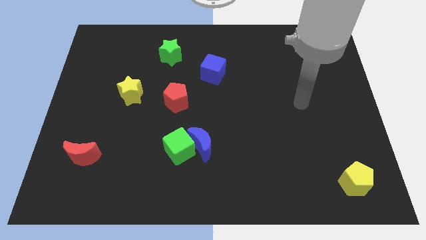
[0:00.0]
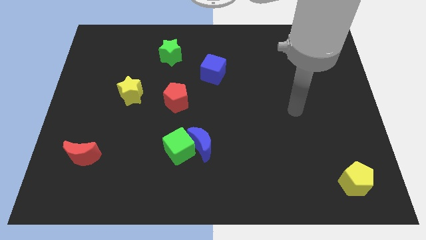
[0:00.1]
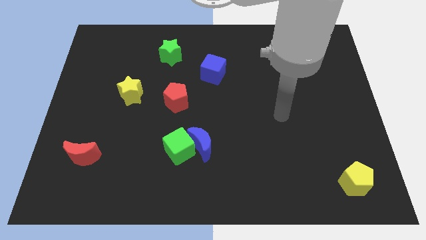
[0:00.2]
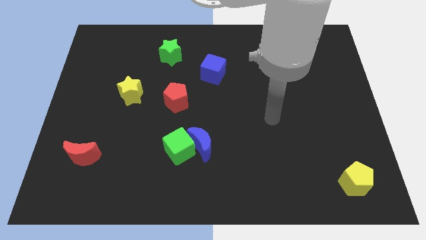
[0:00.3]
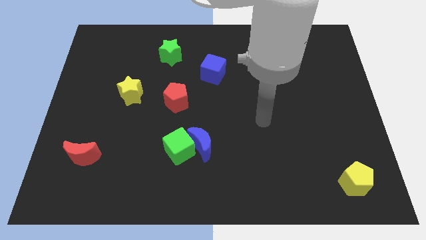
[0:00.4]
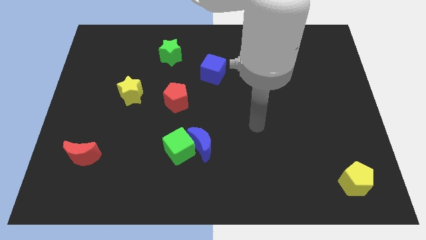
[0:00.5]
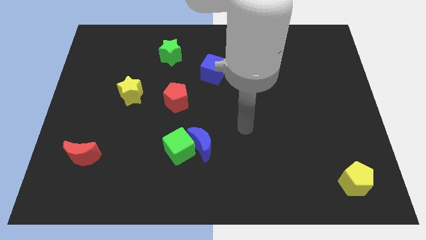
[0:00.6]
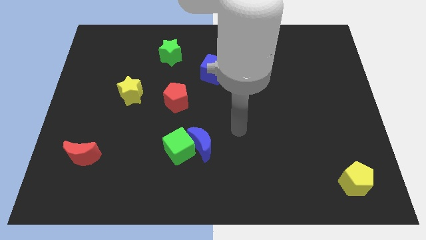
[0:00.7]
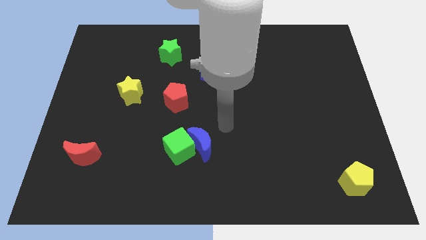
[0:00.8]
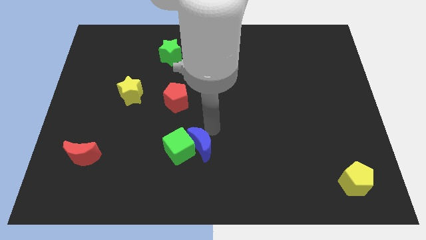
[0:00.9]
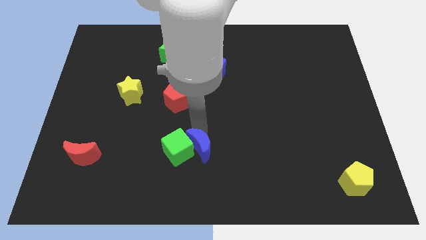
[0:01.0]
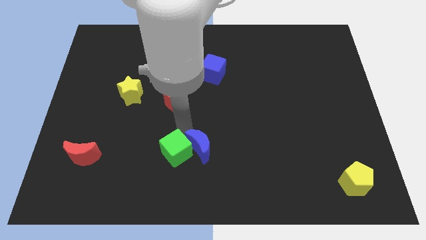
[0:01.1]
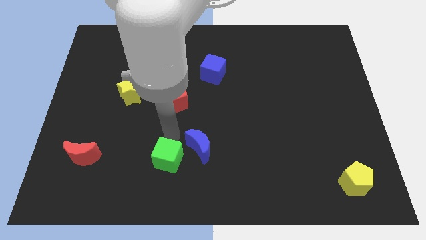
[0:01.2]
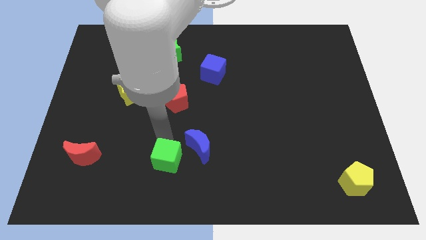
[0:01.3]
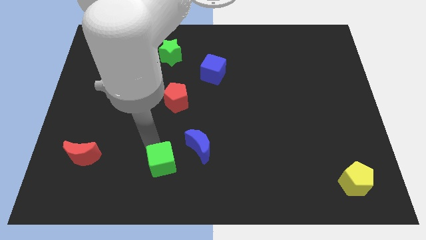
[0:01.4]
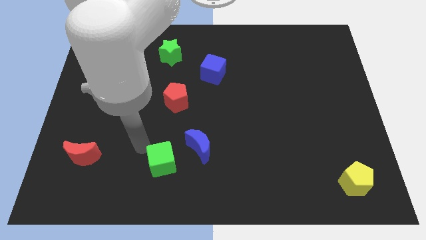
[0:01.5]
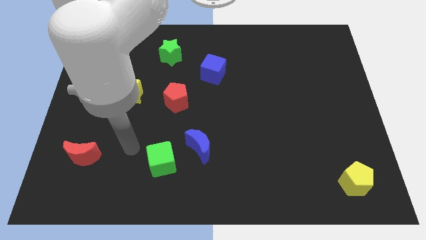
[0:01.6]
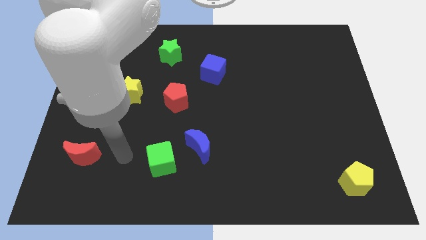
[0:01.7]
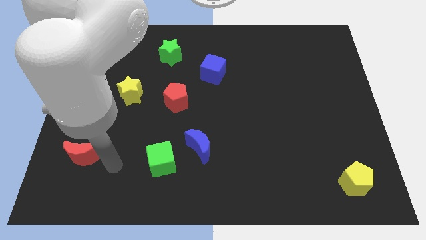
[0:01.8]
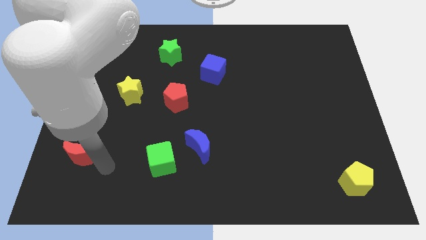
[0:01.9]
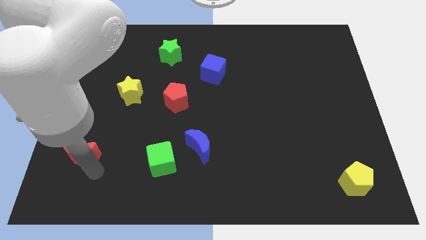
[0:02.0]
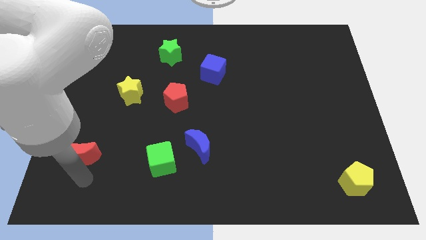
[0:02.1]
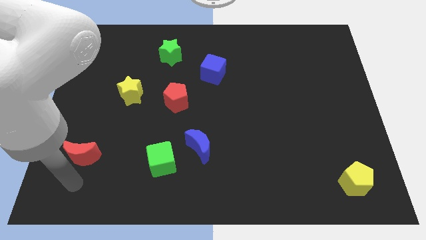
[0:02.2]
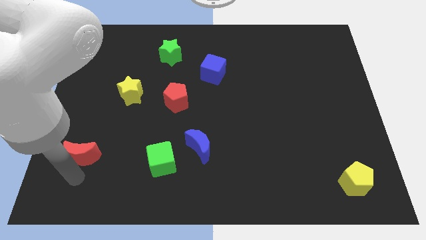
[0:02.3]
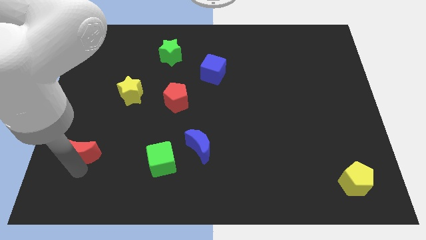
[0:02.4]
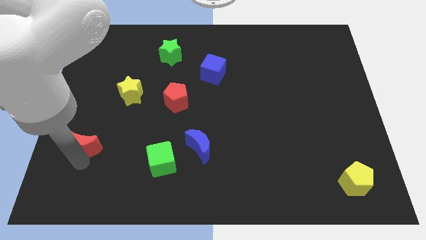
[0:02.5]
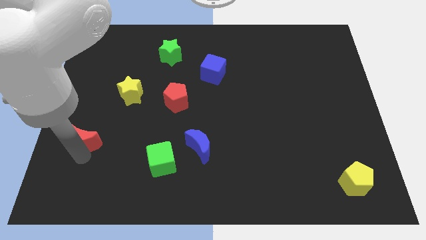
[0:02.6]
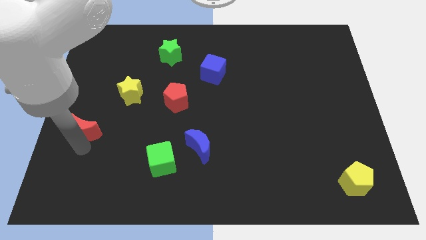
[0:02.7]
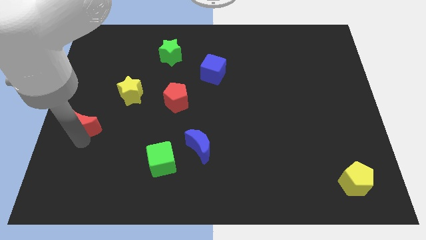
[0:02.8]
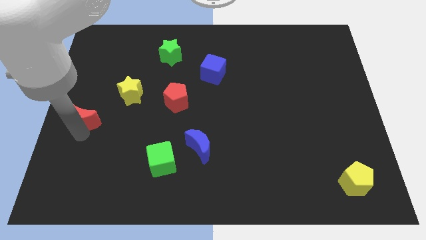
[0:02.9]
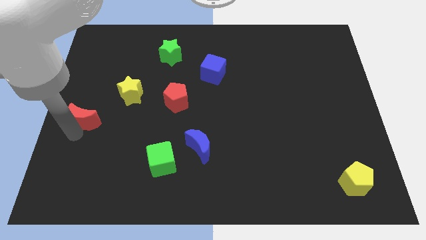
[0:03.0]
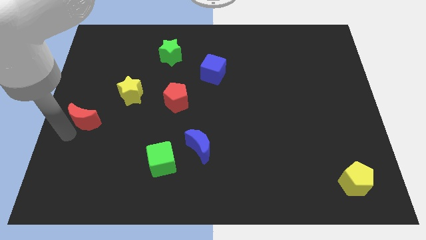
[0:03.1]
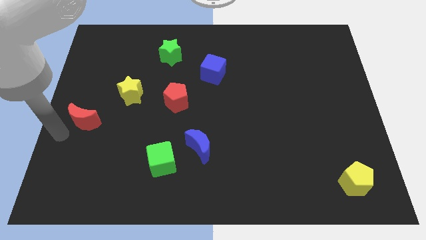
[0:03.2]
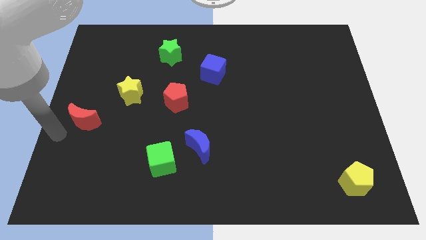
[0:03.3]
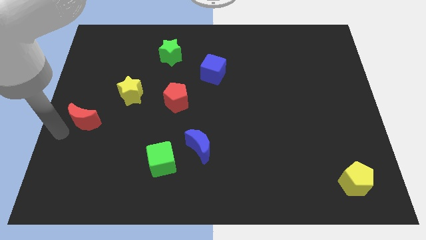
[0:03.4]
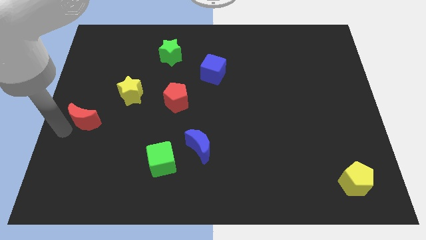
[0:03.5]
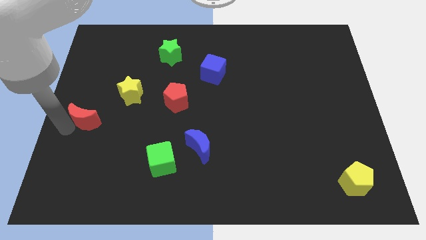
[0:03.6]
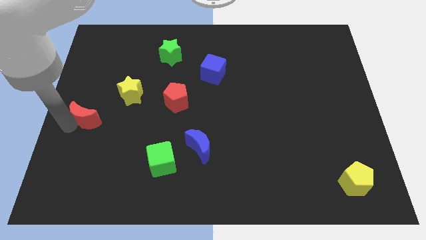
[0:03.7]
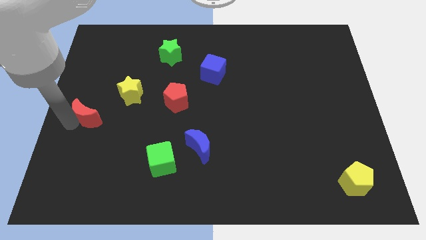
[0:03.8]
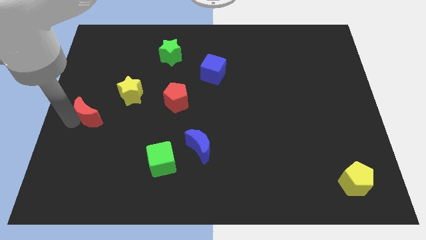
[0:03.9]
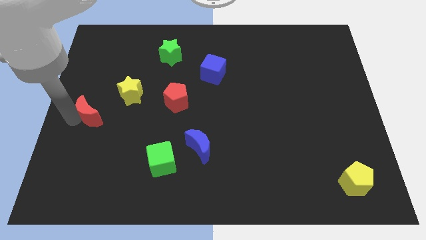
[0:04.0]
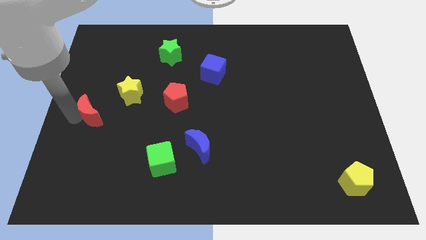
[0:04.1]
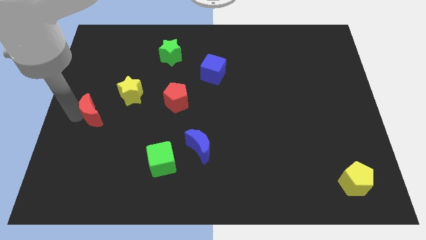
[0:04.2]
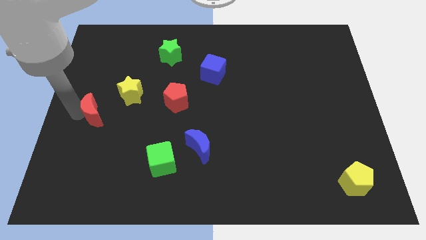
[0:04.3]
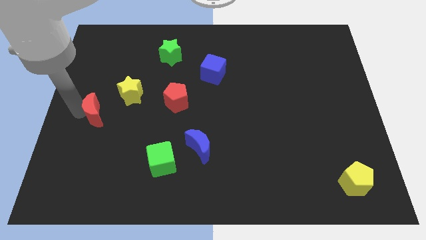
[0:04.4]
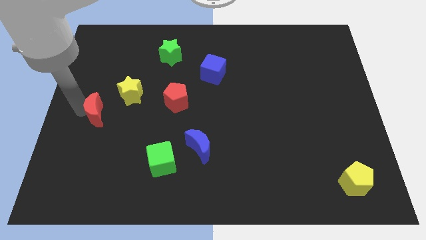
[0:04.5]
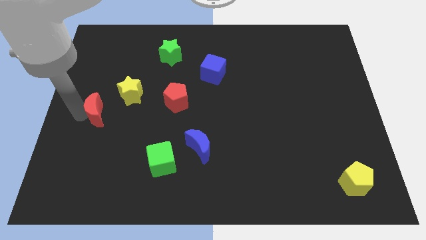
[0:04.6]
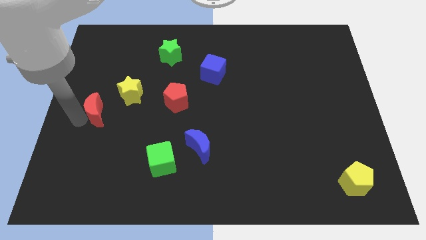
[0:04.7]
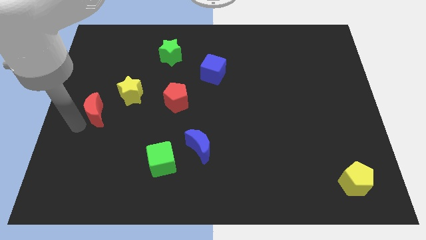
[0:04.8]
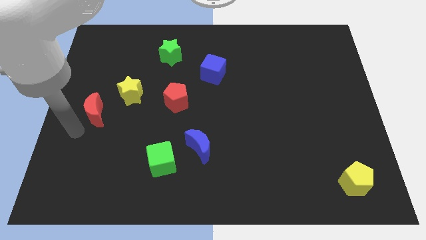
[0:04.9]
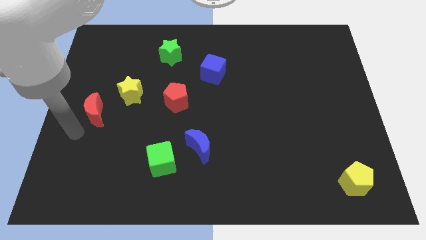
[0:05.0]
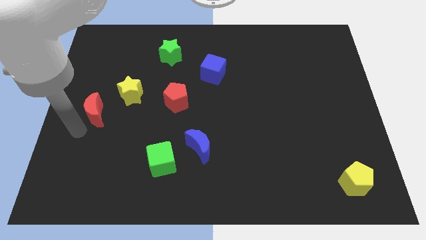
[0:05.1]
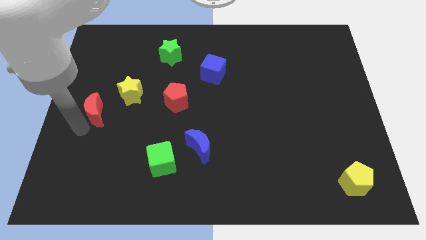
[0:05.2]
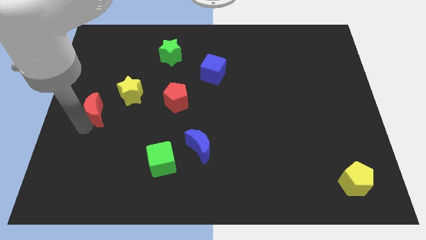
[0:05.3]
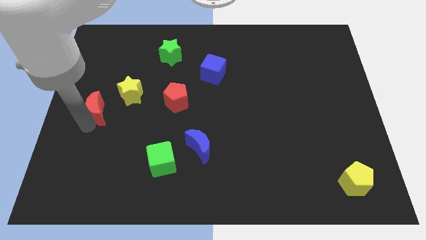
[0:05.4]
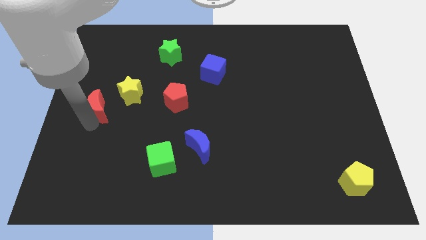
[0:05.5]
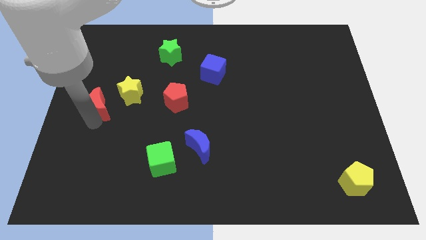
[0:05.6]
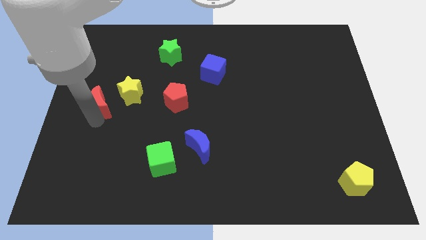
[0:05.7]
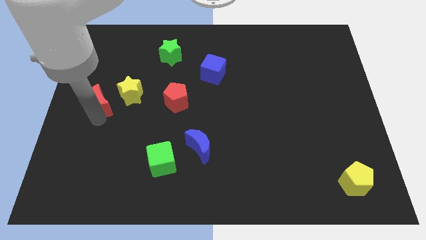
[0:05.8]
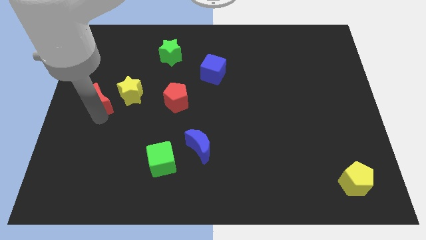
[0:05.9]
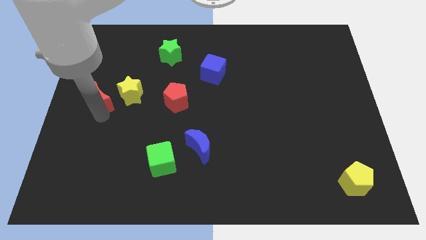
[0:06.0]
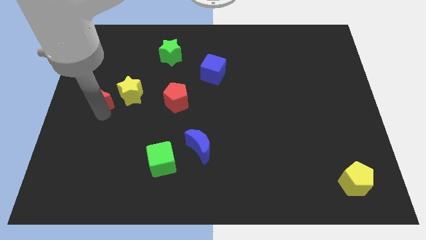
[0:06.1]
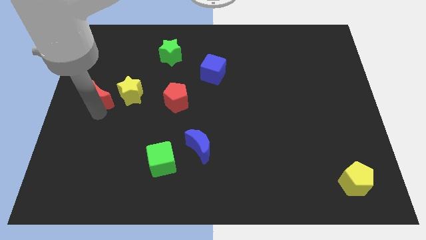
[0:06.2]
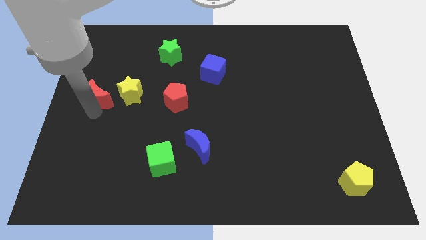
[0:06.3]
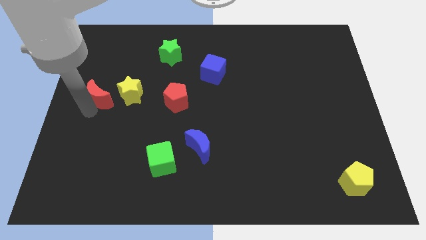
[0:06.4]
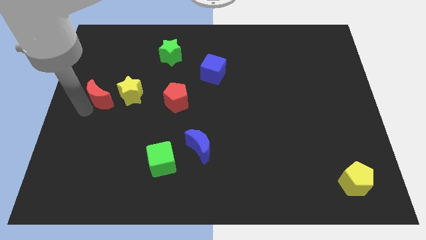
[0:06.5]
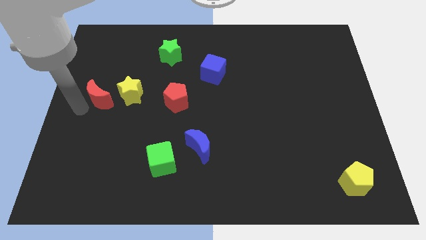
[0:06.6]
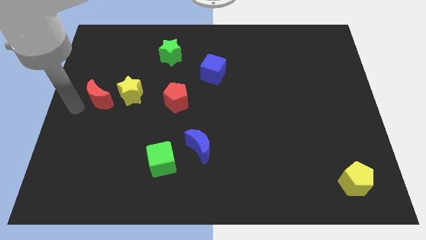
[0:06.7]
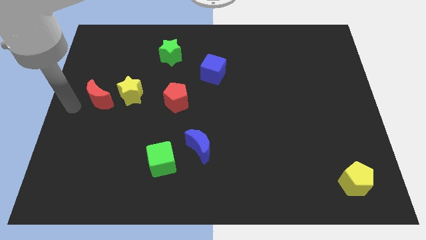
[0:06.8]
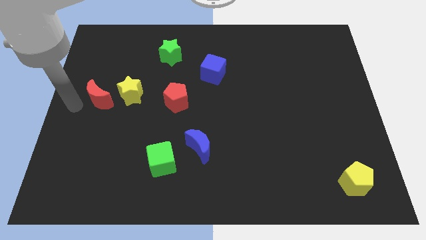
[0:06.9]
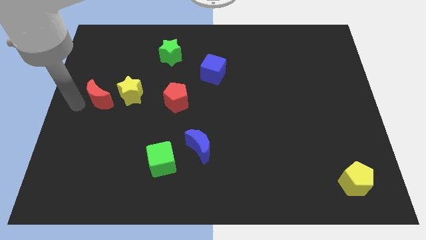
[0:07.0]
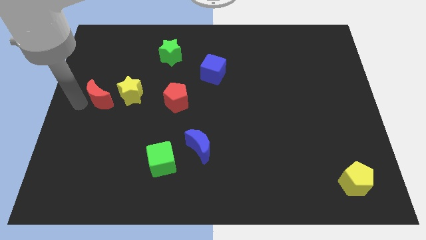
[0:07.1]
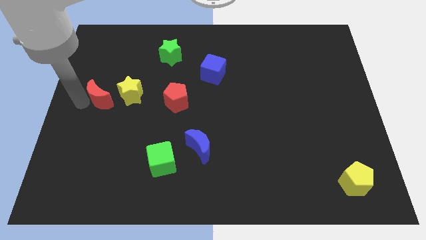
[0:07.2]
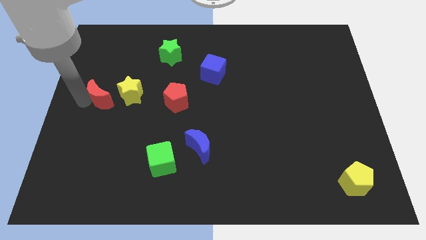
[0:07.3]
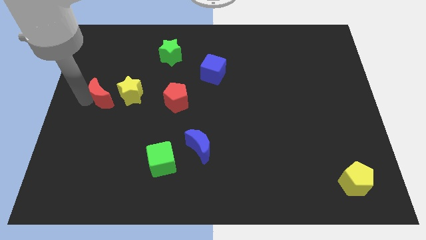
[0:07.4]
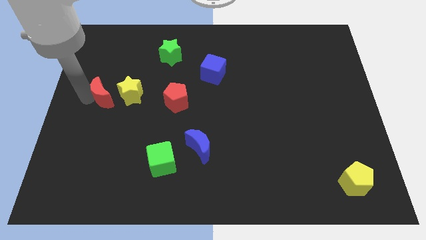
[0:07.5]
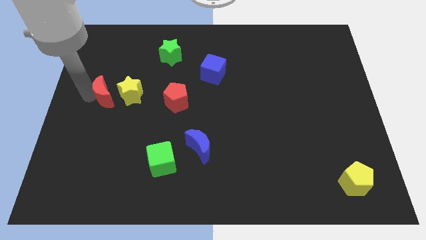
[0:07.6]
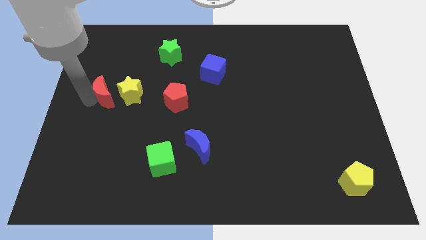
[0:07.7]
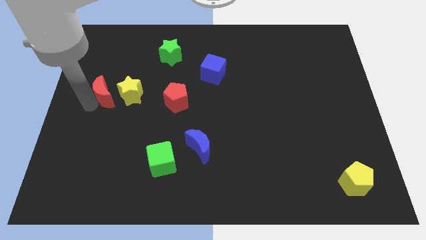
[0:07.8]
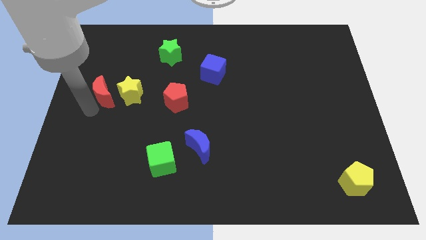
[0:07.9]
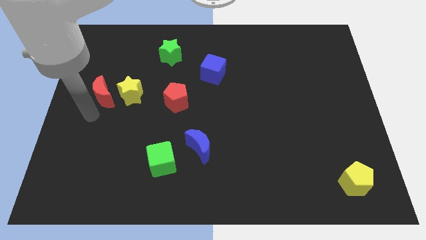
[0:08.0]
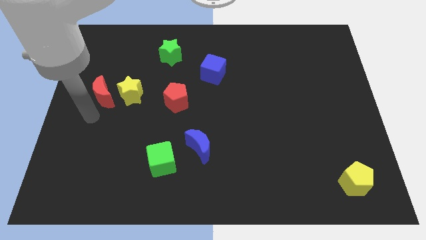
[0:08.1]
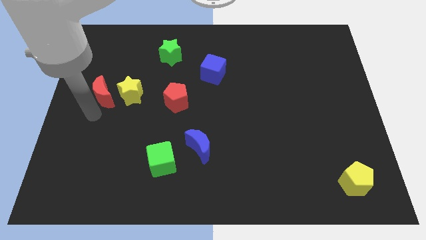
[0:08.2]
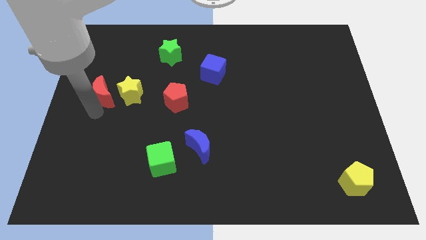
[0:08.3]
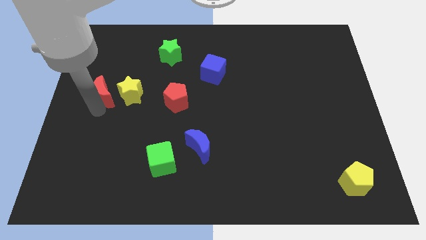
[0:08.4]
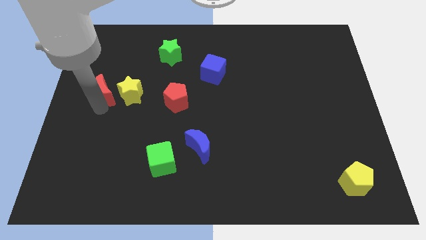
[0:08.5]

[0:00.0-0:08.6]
slide the red moon to the top left side of the yellow star
